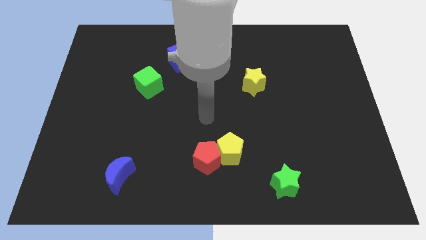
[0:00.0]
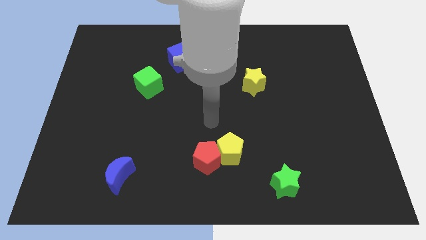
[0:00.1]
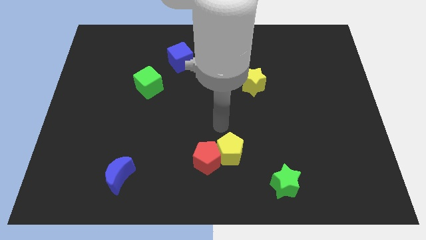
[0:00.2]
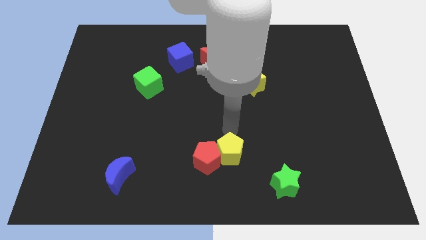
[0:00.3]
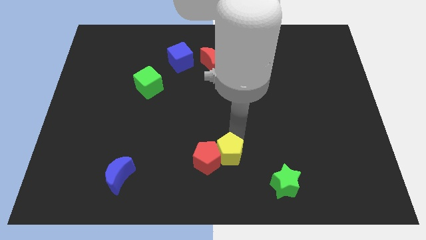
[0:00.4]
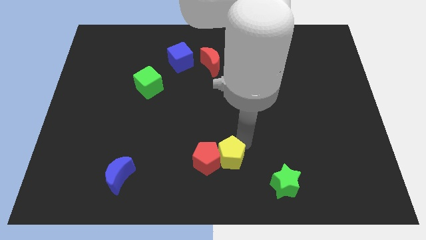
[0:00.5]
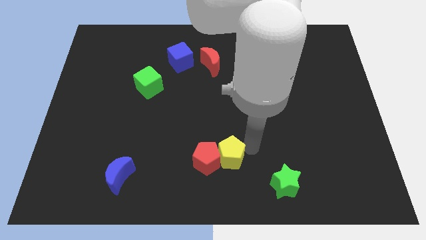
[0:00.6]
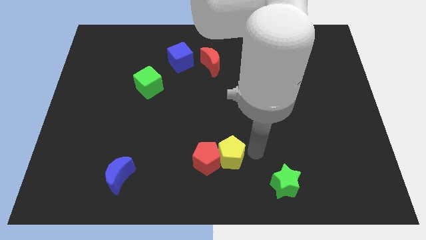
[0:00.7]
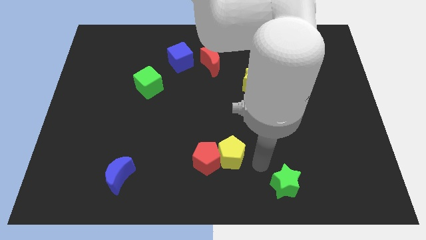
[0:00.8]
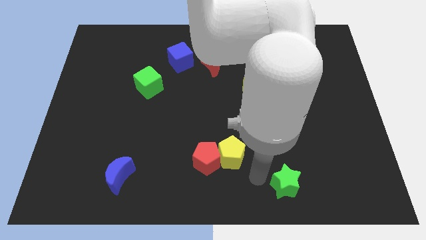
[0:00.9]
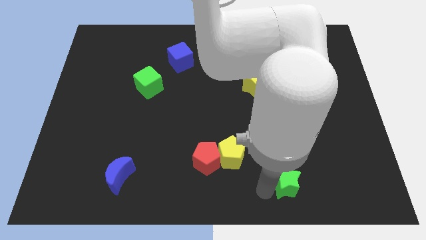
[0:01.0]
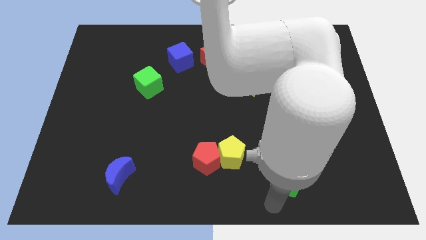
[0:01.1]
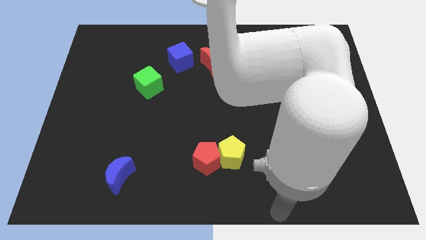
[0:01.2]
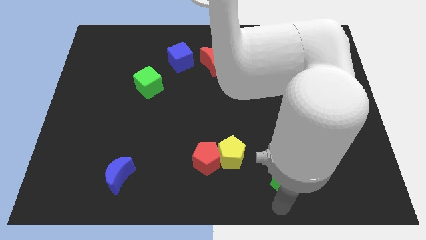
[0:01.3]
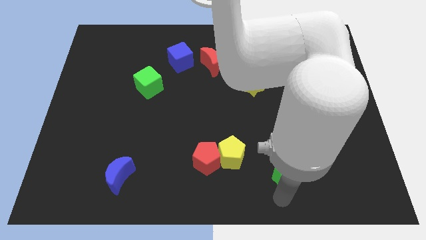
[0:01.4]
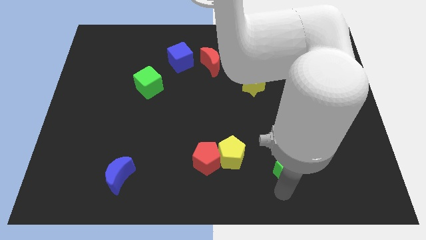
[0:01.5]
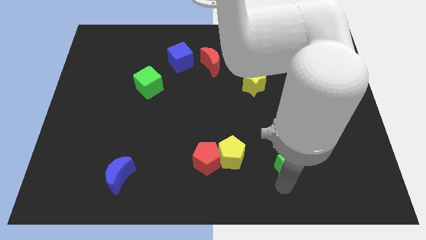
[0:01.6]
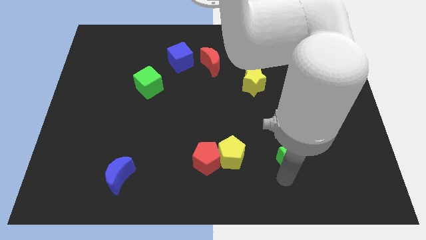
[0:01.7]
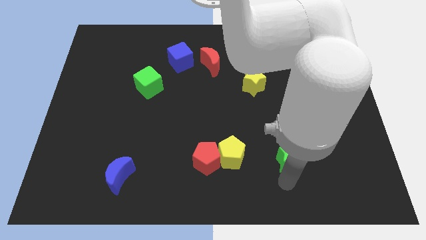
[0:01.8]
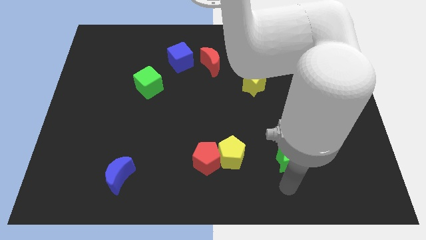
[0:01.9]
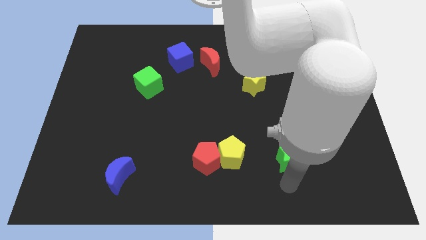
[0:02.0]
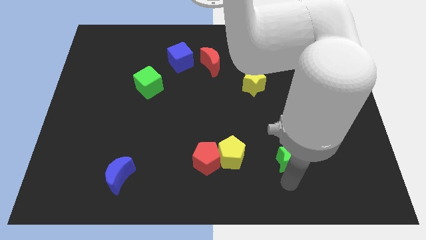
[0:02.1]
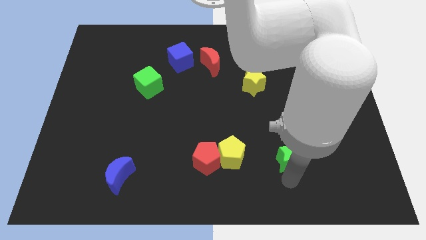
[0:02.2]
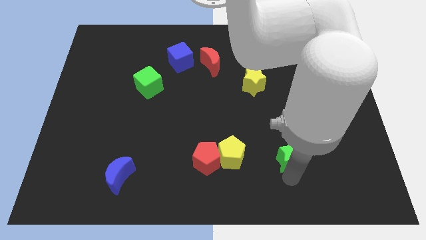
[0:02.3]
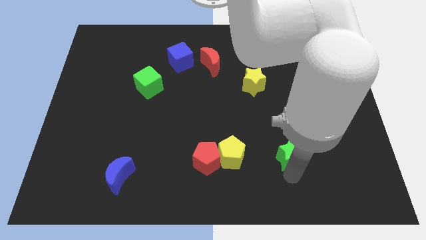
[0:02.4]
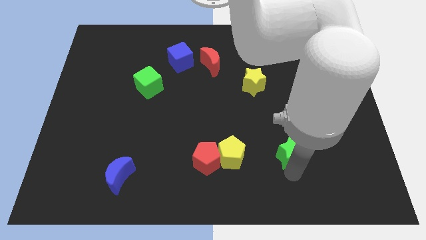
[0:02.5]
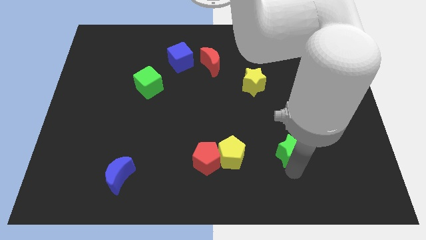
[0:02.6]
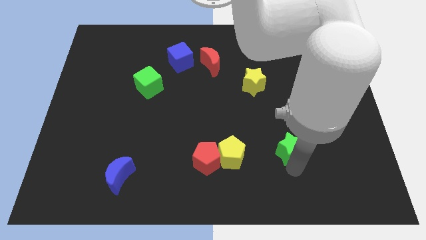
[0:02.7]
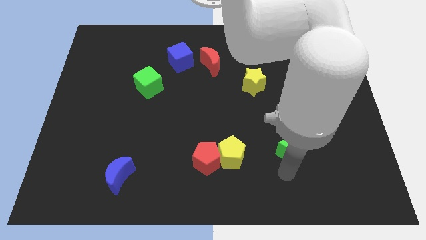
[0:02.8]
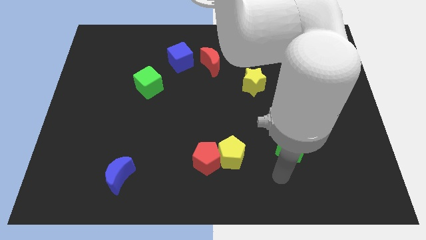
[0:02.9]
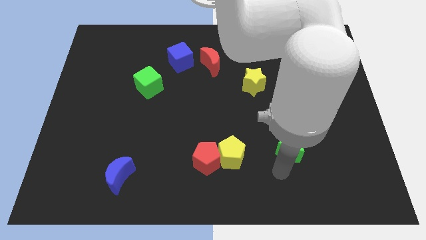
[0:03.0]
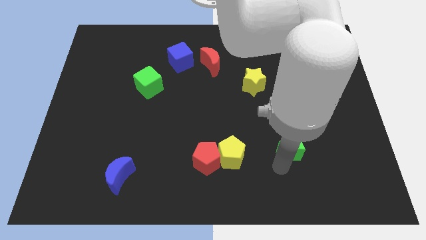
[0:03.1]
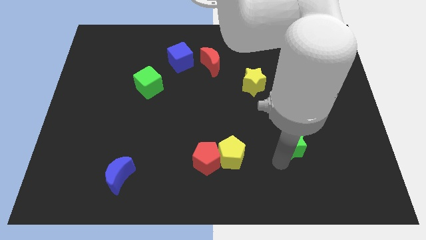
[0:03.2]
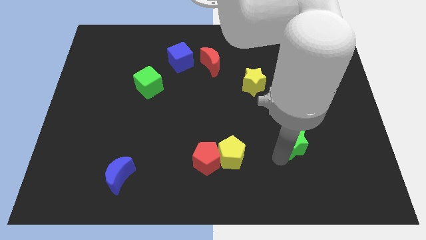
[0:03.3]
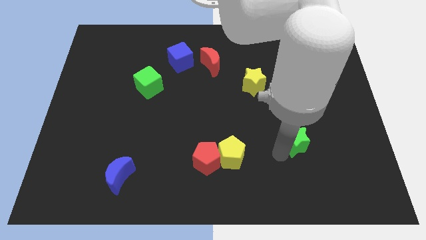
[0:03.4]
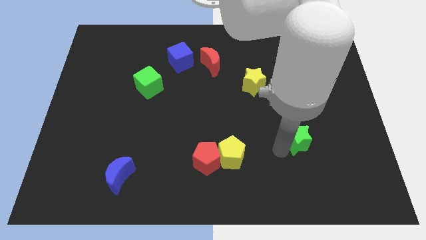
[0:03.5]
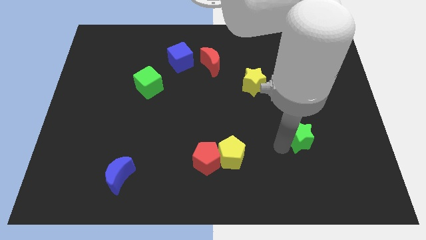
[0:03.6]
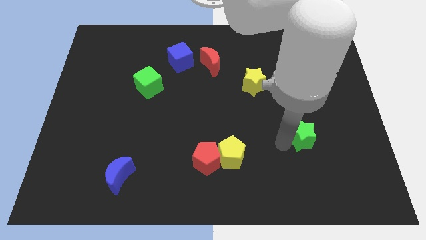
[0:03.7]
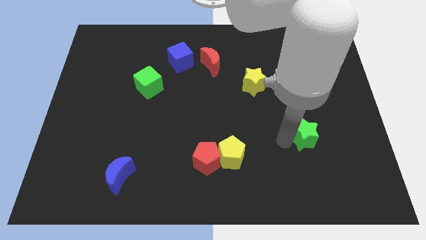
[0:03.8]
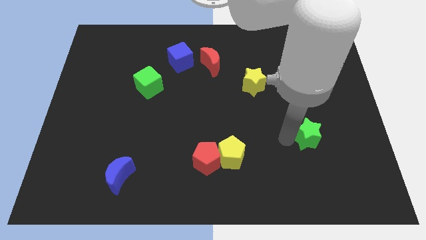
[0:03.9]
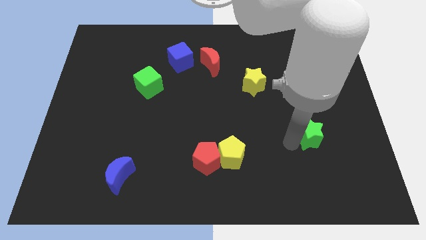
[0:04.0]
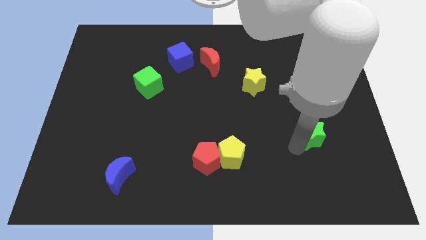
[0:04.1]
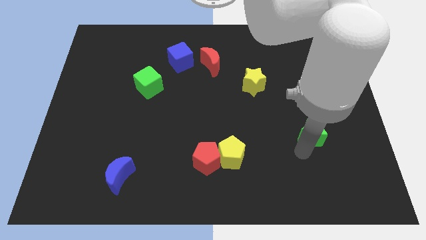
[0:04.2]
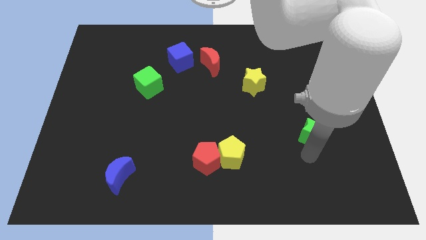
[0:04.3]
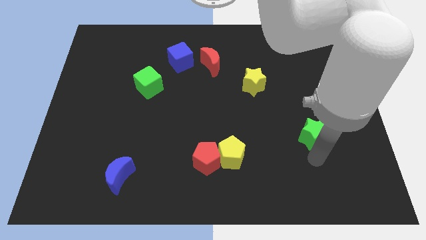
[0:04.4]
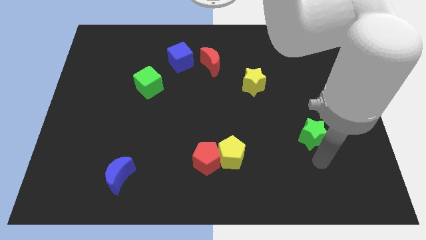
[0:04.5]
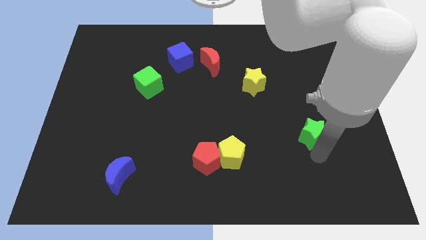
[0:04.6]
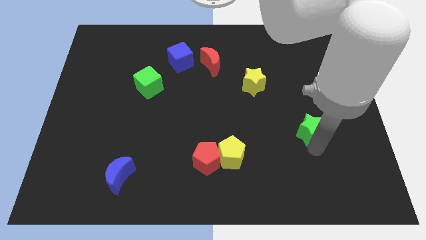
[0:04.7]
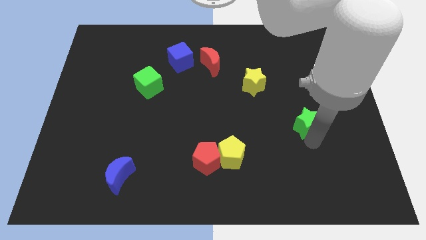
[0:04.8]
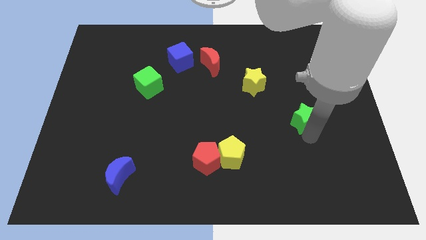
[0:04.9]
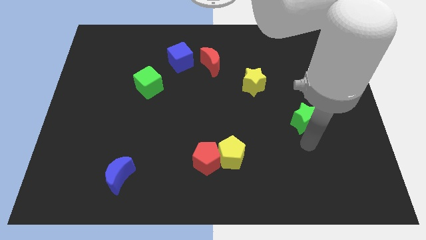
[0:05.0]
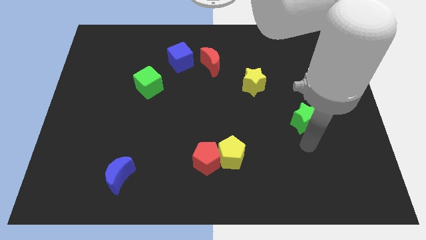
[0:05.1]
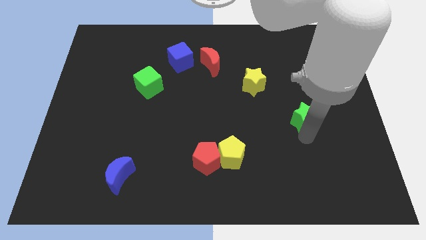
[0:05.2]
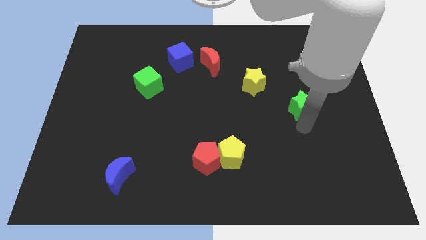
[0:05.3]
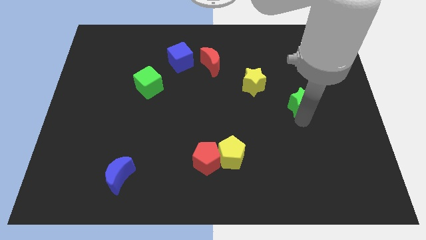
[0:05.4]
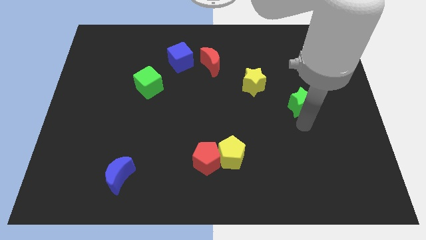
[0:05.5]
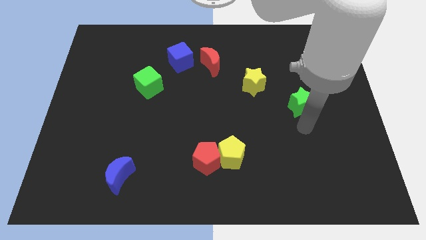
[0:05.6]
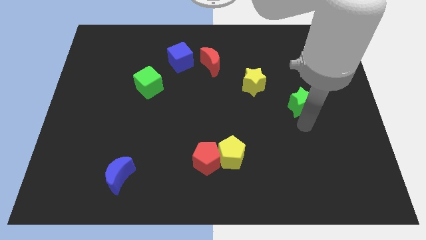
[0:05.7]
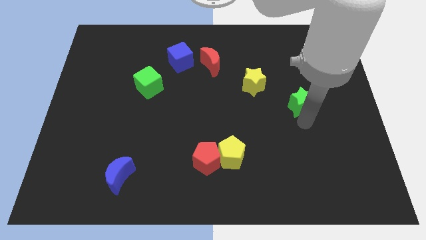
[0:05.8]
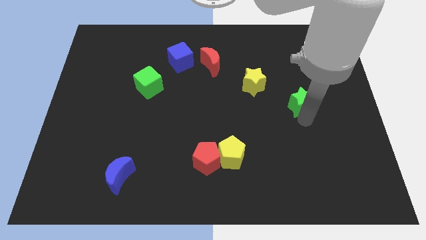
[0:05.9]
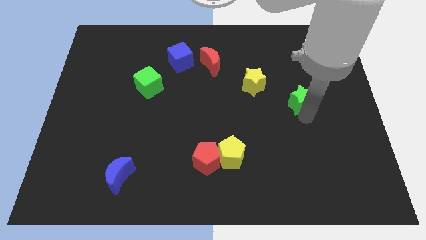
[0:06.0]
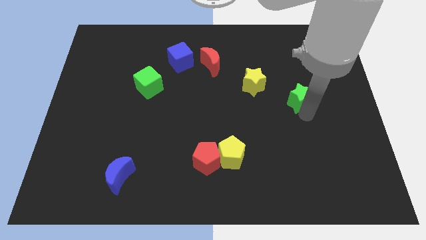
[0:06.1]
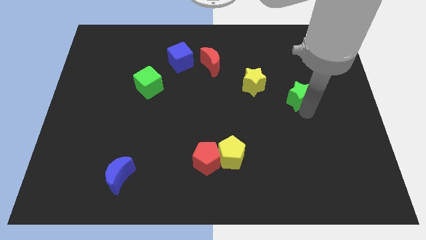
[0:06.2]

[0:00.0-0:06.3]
put the green star right of the yellow star

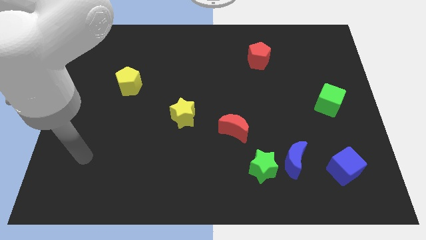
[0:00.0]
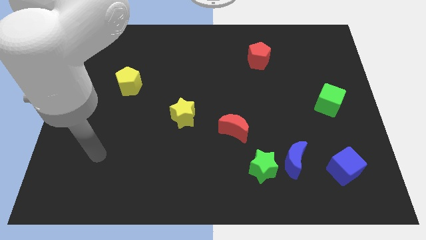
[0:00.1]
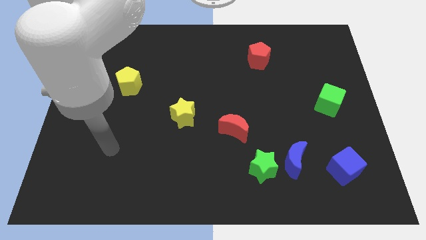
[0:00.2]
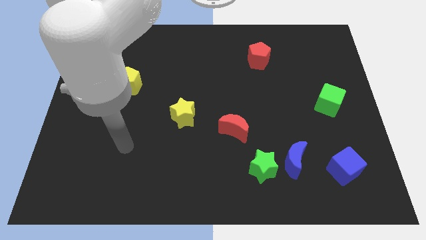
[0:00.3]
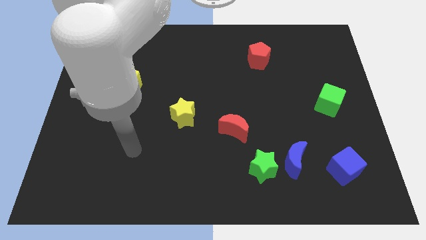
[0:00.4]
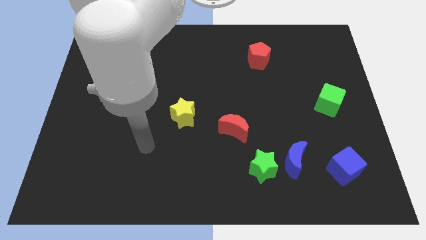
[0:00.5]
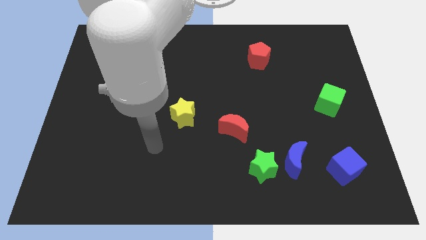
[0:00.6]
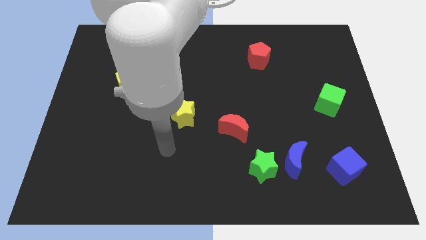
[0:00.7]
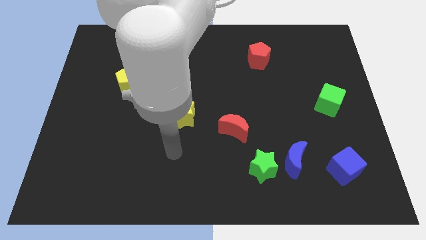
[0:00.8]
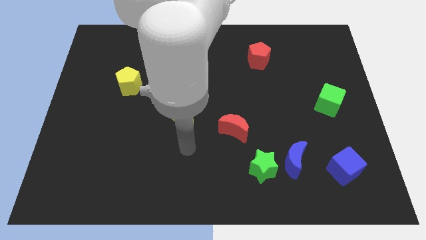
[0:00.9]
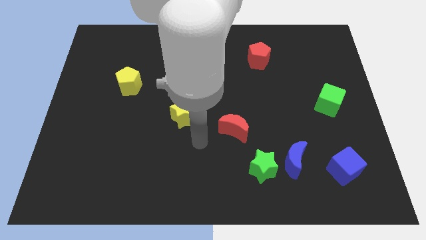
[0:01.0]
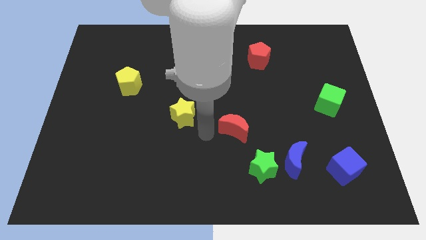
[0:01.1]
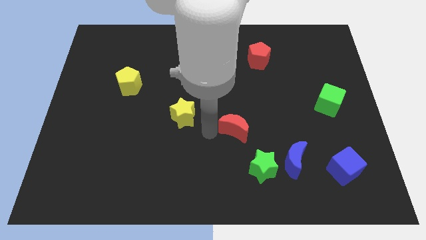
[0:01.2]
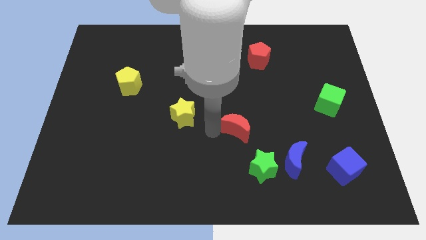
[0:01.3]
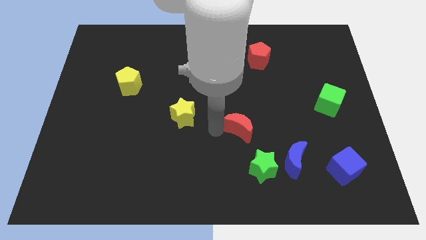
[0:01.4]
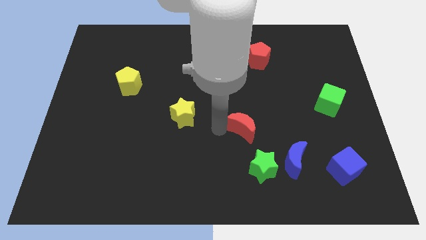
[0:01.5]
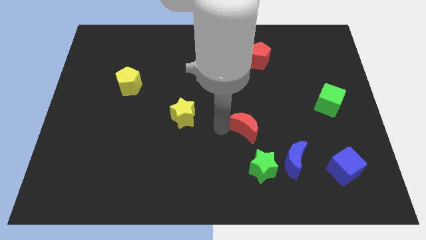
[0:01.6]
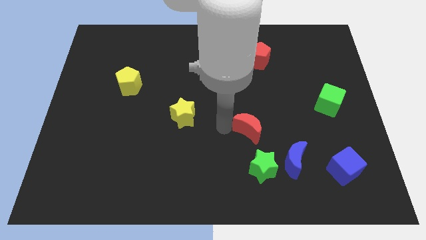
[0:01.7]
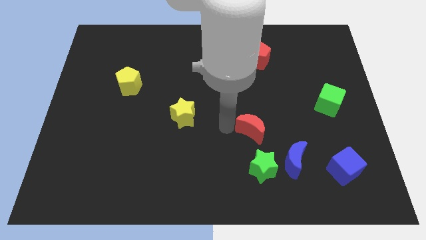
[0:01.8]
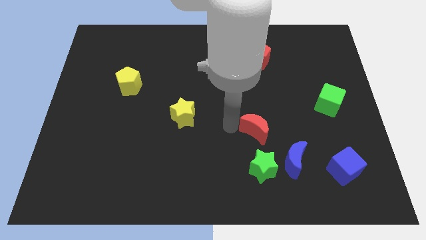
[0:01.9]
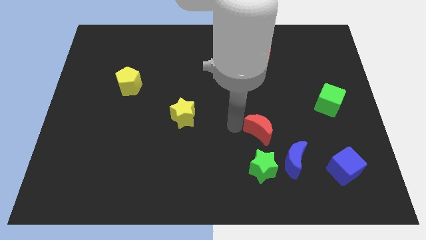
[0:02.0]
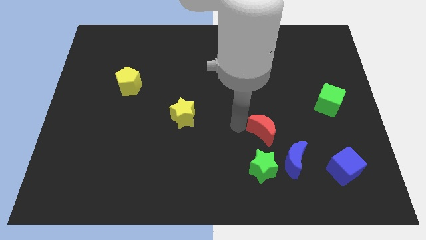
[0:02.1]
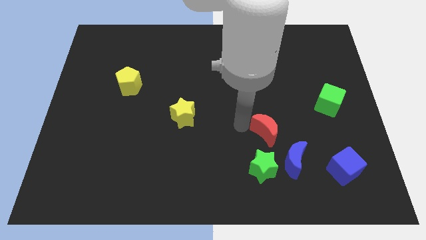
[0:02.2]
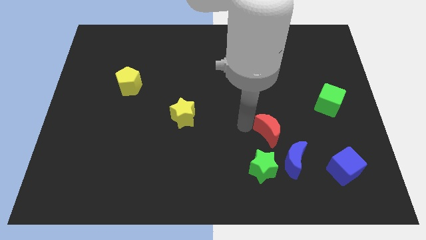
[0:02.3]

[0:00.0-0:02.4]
push the red moon to the top side of the blue moon
